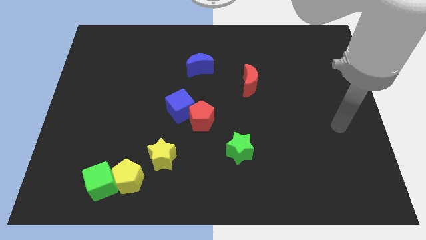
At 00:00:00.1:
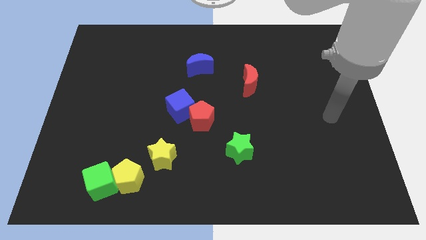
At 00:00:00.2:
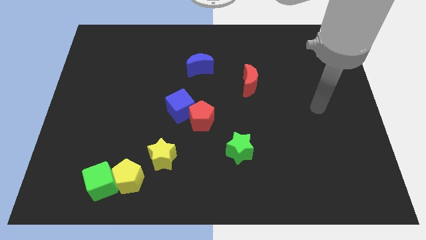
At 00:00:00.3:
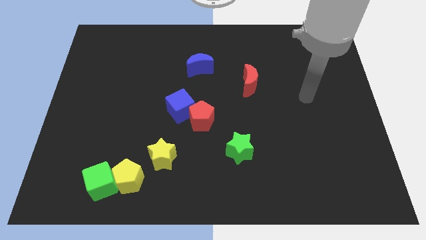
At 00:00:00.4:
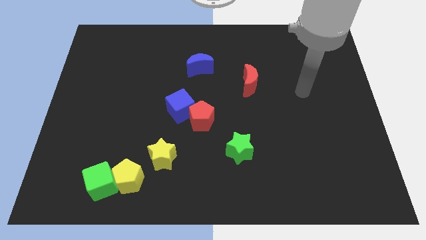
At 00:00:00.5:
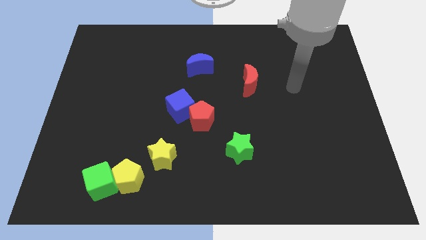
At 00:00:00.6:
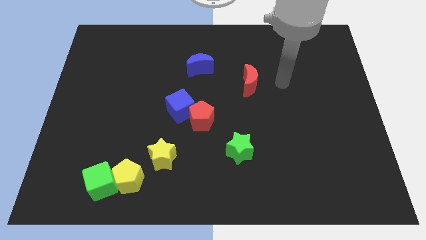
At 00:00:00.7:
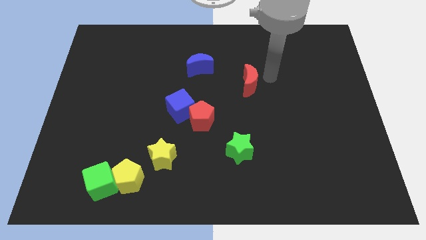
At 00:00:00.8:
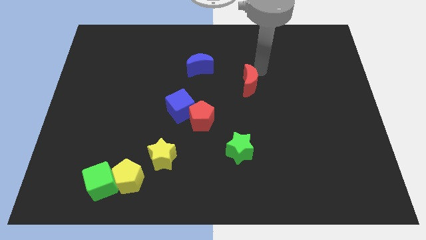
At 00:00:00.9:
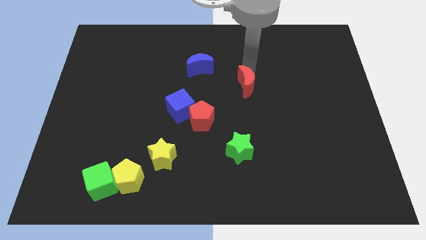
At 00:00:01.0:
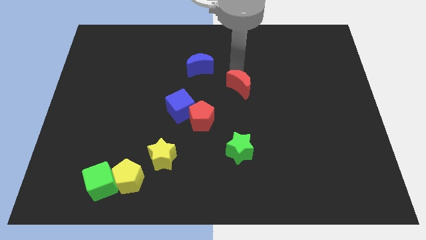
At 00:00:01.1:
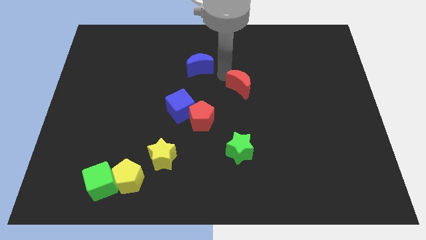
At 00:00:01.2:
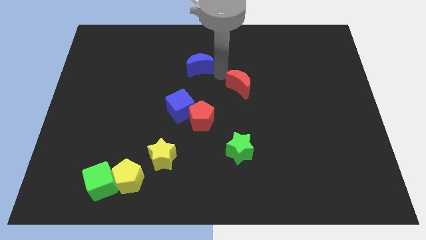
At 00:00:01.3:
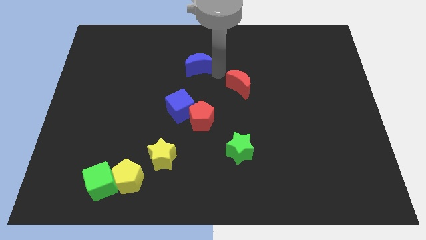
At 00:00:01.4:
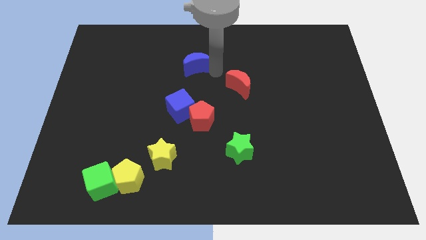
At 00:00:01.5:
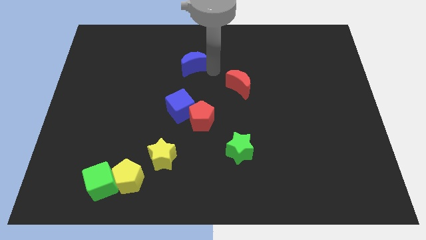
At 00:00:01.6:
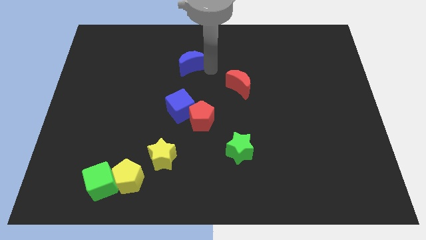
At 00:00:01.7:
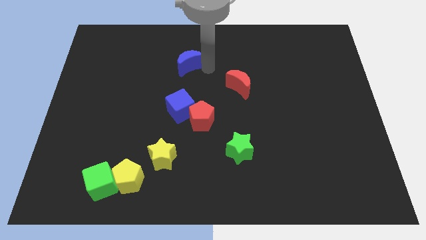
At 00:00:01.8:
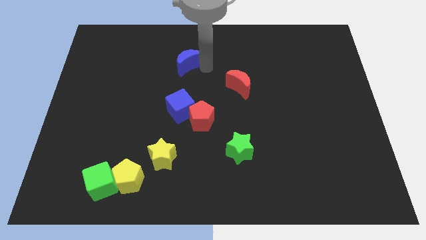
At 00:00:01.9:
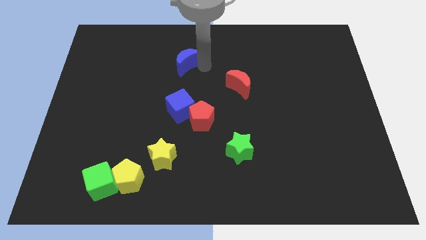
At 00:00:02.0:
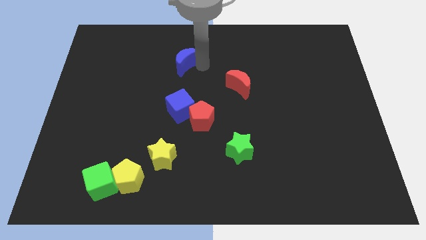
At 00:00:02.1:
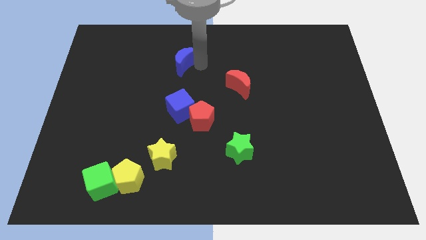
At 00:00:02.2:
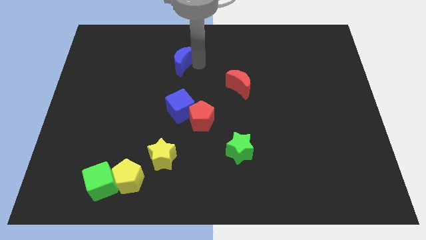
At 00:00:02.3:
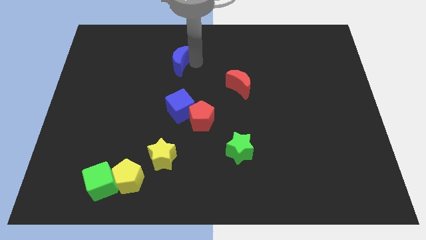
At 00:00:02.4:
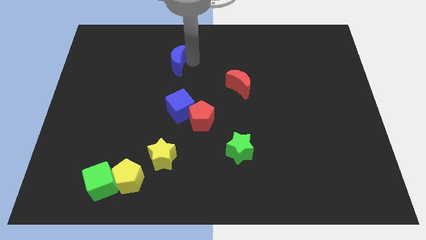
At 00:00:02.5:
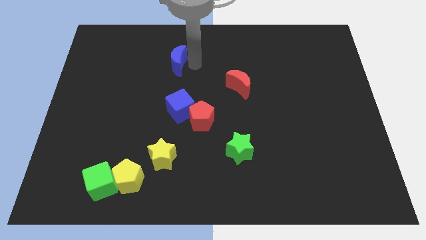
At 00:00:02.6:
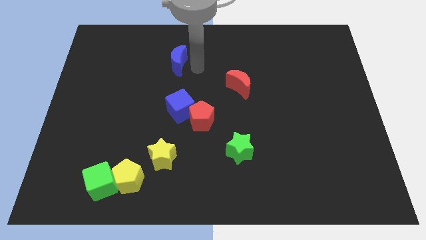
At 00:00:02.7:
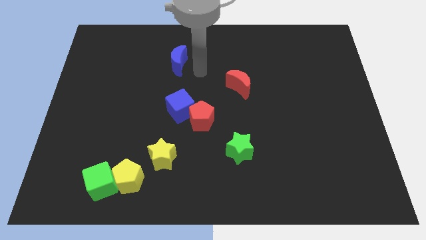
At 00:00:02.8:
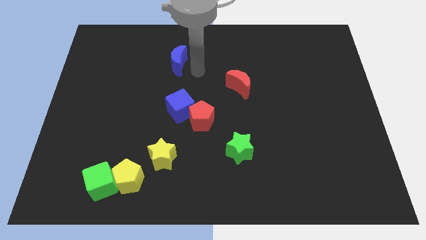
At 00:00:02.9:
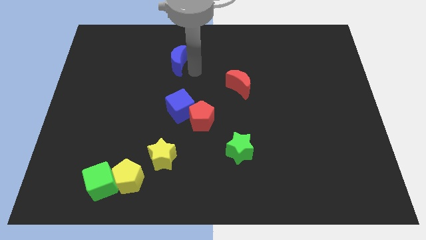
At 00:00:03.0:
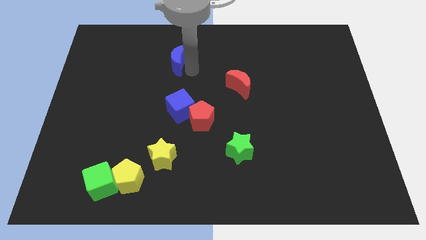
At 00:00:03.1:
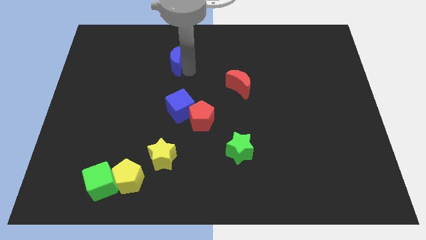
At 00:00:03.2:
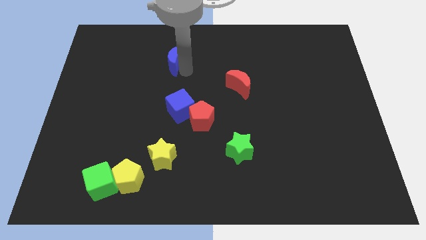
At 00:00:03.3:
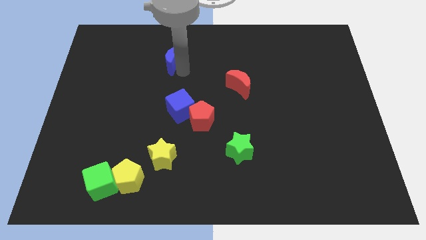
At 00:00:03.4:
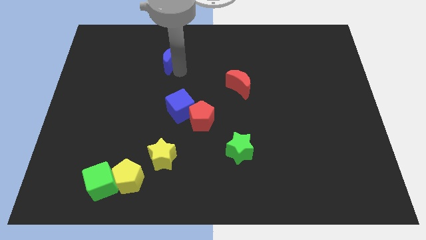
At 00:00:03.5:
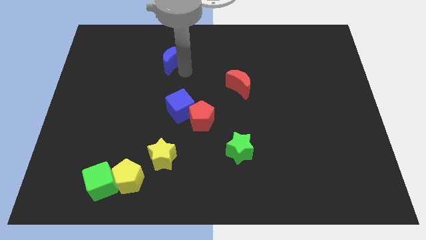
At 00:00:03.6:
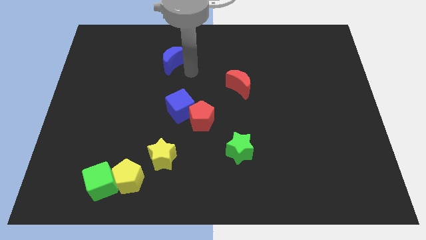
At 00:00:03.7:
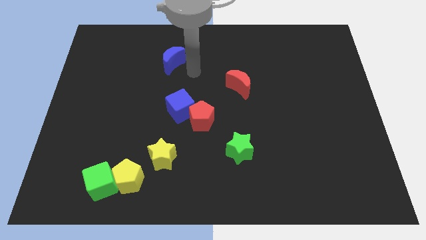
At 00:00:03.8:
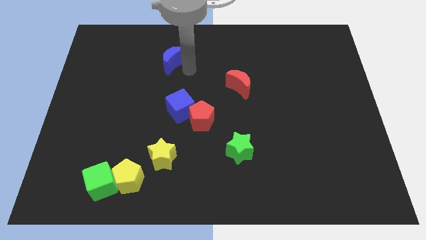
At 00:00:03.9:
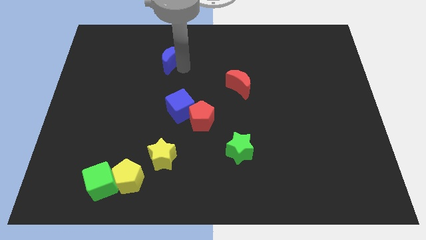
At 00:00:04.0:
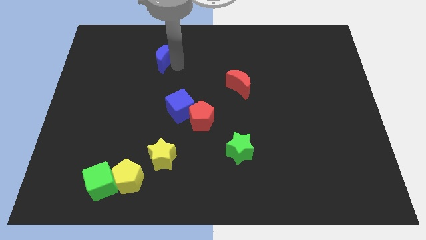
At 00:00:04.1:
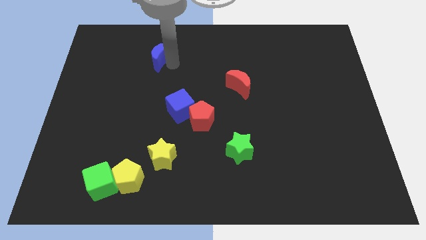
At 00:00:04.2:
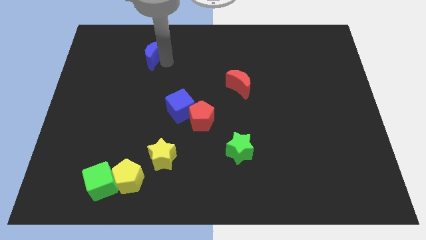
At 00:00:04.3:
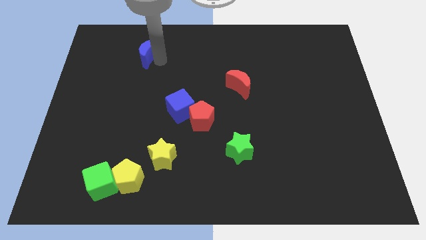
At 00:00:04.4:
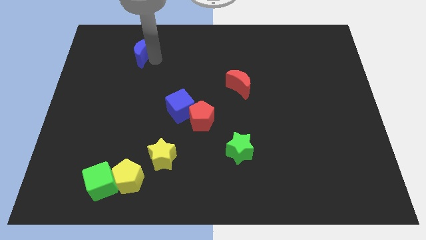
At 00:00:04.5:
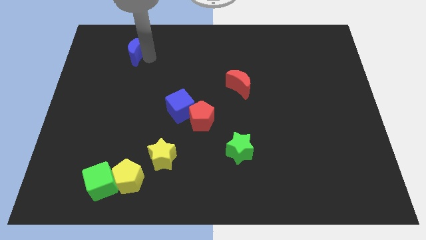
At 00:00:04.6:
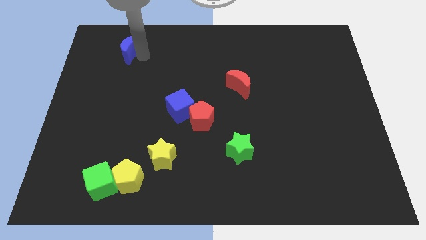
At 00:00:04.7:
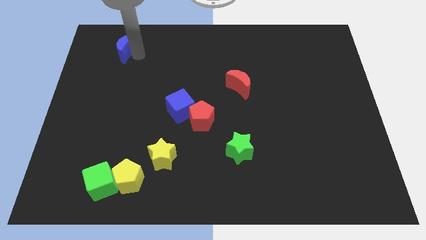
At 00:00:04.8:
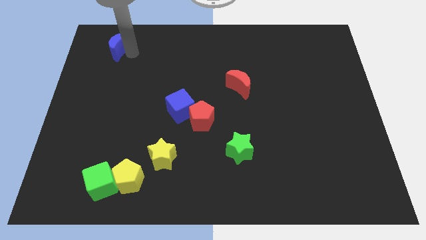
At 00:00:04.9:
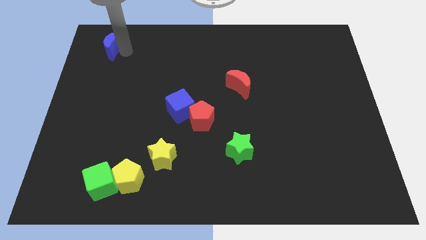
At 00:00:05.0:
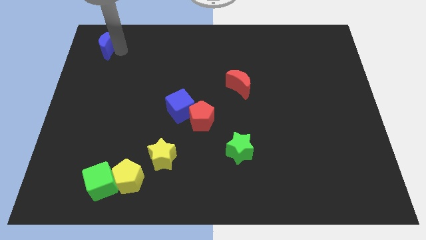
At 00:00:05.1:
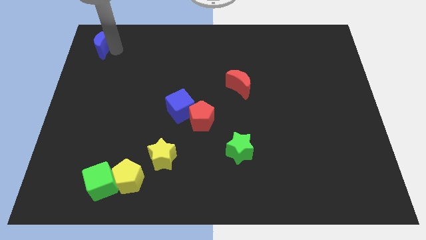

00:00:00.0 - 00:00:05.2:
slide the blue moon to the upper left corner

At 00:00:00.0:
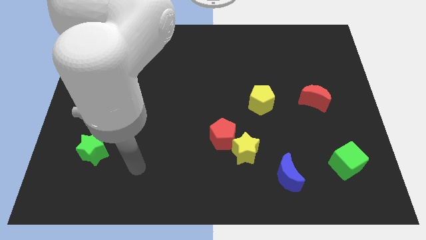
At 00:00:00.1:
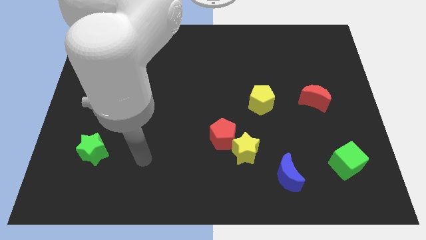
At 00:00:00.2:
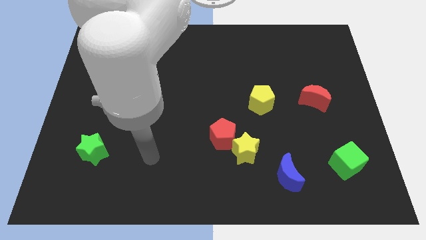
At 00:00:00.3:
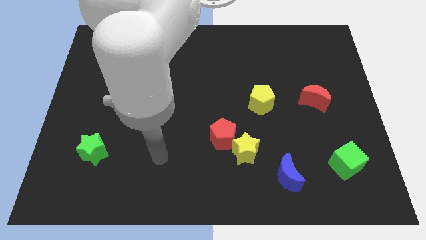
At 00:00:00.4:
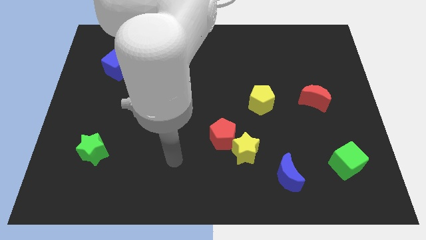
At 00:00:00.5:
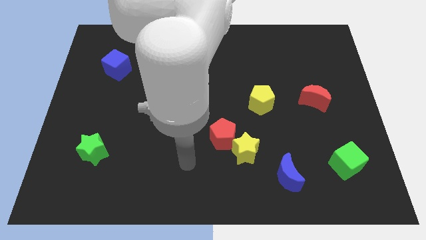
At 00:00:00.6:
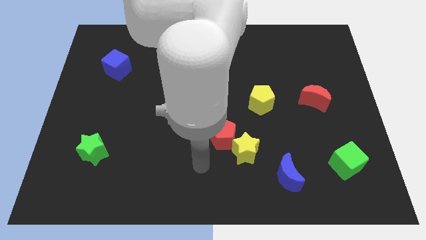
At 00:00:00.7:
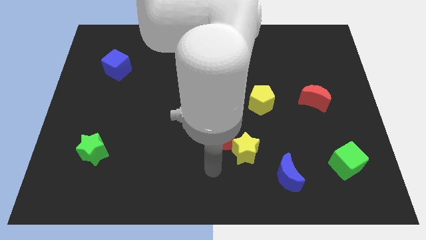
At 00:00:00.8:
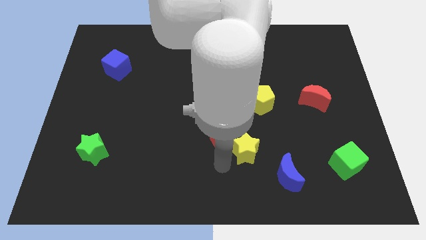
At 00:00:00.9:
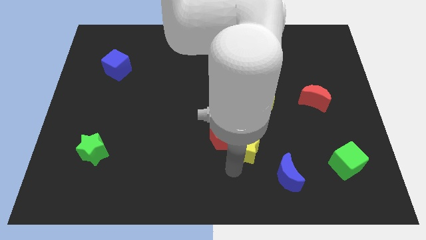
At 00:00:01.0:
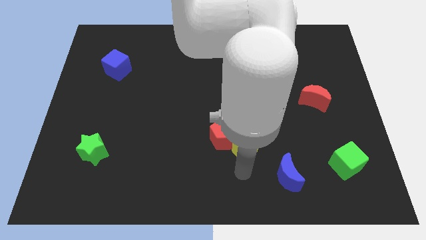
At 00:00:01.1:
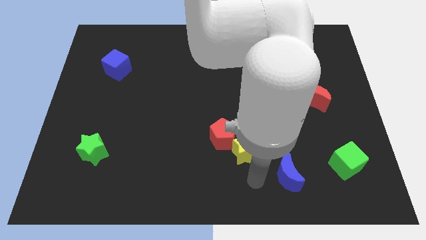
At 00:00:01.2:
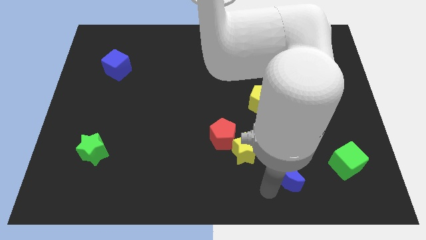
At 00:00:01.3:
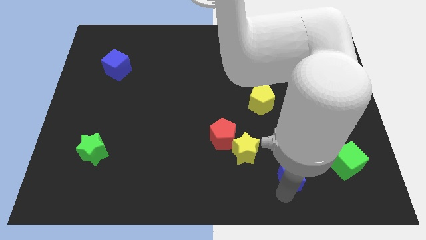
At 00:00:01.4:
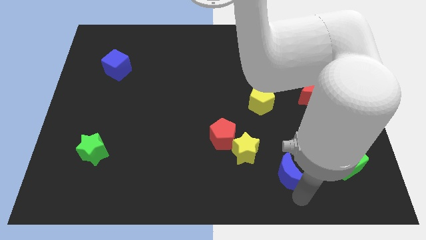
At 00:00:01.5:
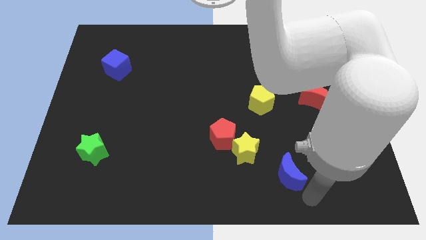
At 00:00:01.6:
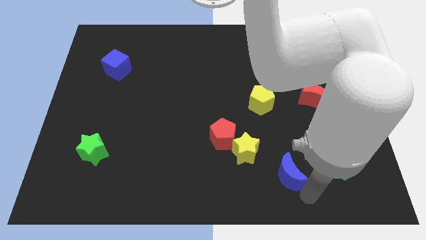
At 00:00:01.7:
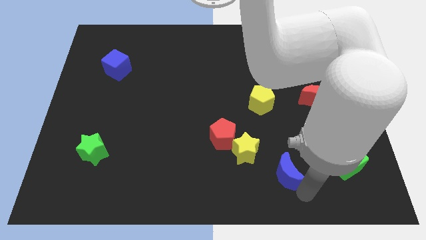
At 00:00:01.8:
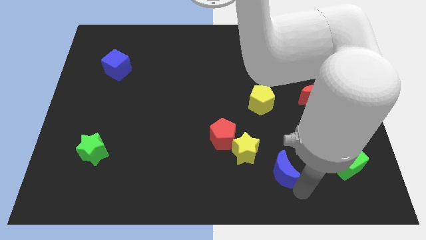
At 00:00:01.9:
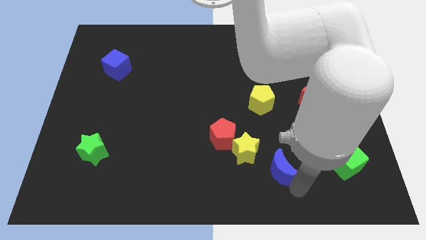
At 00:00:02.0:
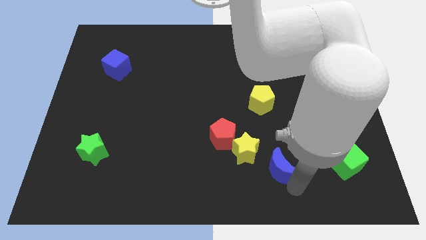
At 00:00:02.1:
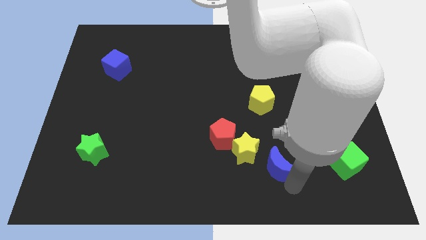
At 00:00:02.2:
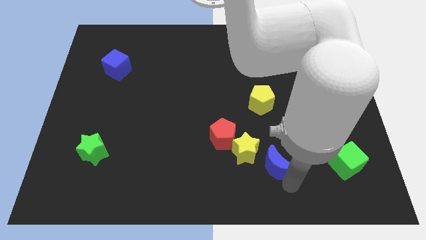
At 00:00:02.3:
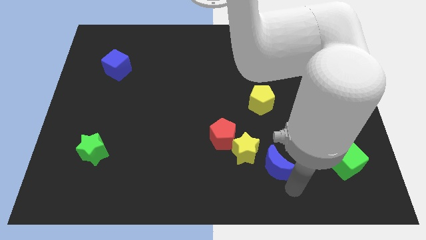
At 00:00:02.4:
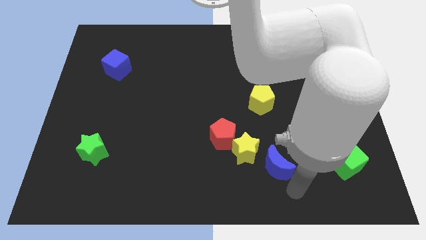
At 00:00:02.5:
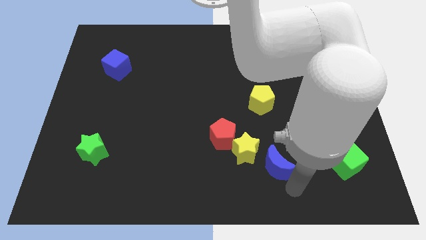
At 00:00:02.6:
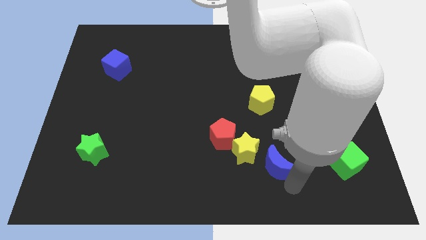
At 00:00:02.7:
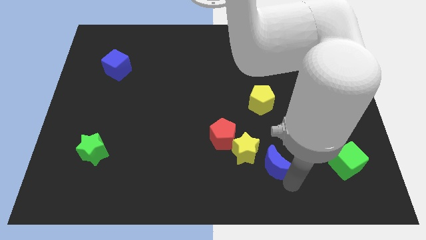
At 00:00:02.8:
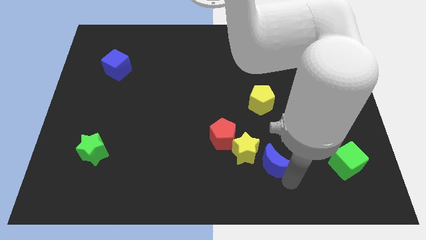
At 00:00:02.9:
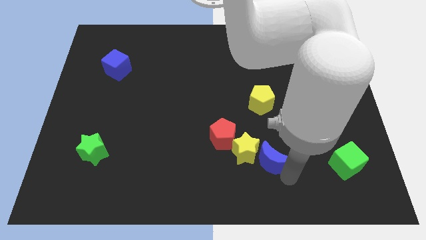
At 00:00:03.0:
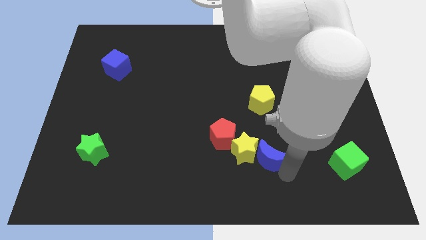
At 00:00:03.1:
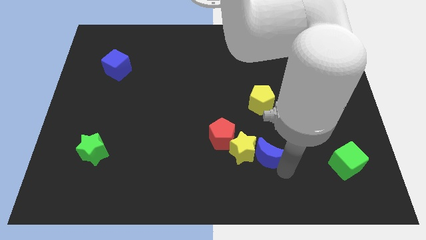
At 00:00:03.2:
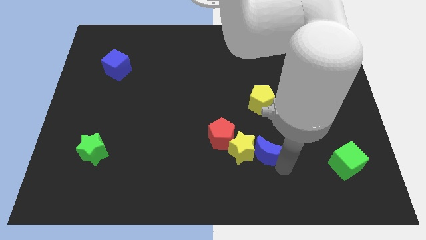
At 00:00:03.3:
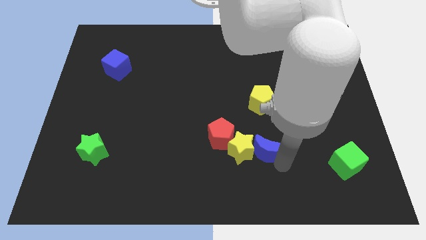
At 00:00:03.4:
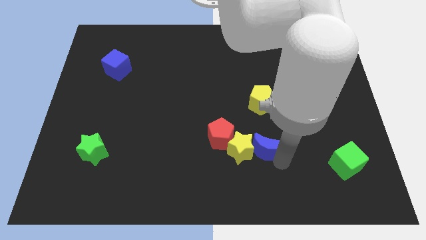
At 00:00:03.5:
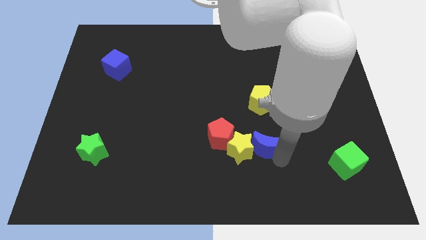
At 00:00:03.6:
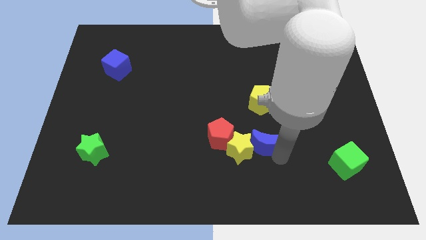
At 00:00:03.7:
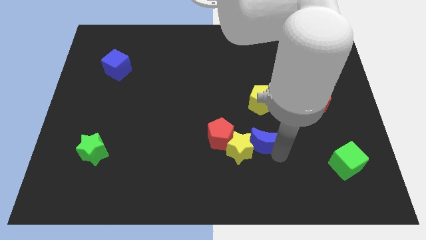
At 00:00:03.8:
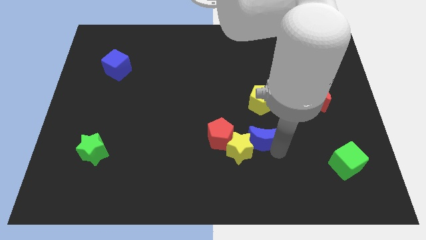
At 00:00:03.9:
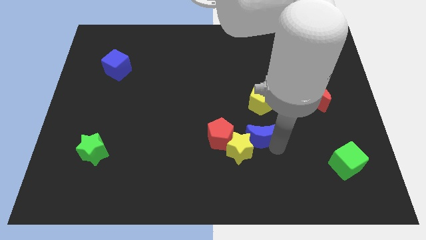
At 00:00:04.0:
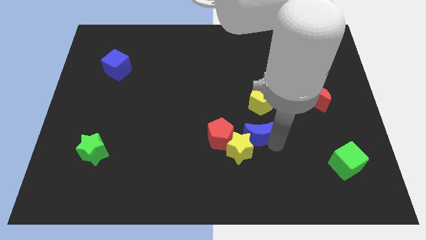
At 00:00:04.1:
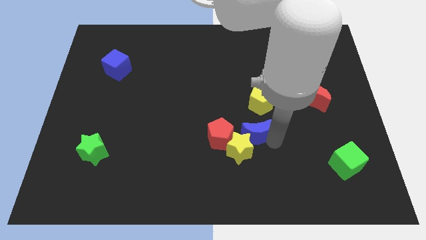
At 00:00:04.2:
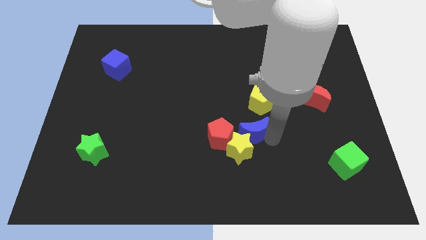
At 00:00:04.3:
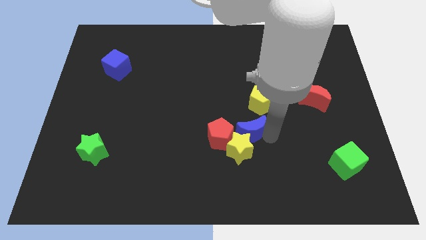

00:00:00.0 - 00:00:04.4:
slide the blue moon to the middle
